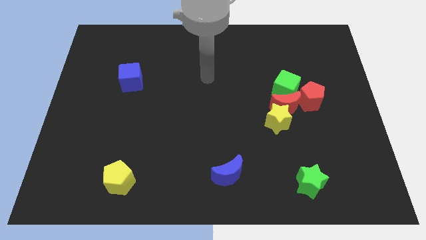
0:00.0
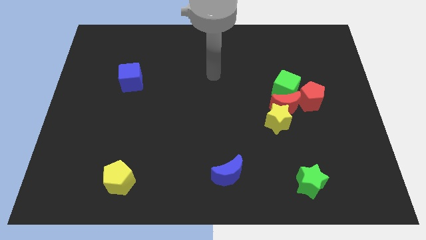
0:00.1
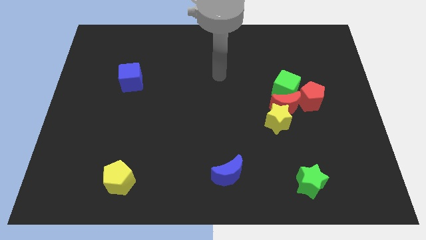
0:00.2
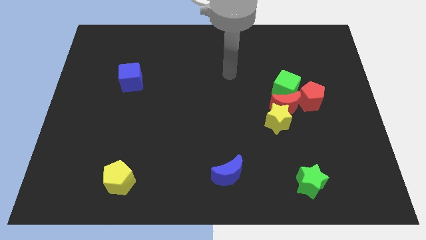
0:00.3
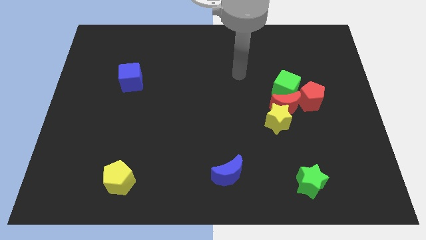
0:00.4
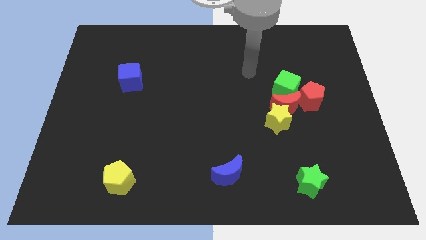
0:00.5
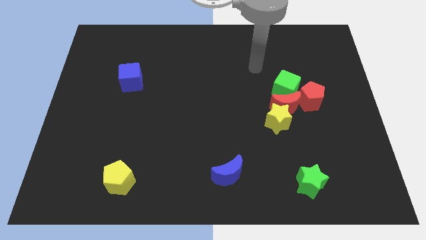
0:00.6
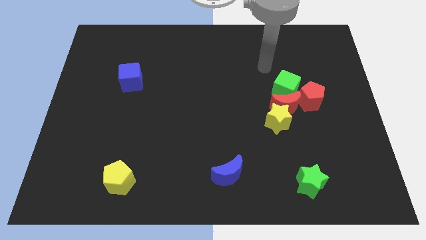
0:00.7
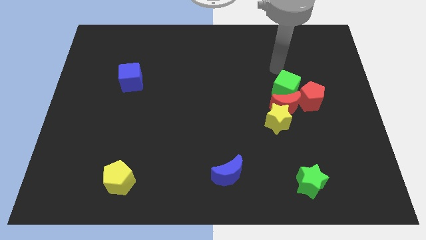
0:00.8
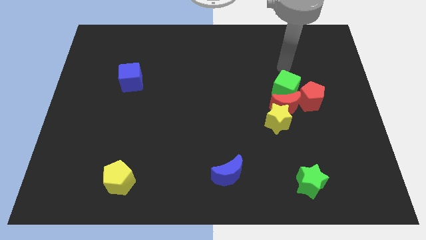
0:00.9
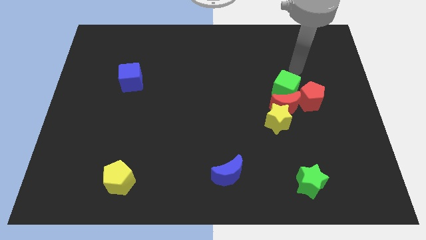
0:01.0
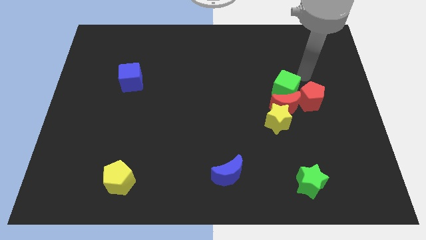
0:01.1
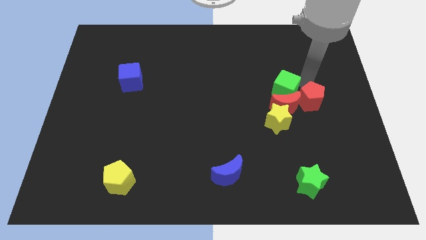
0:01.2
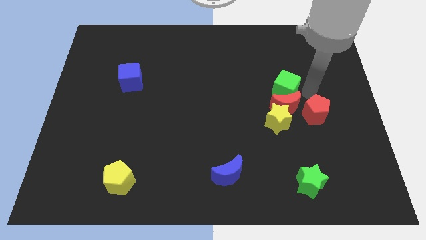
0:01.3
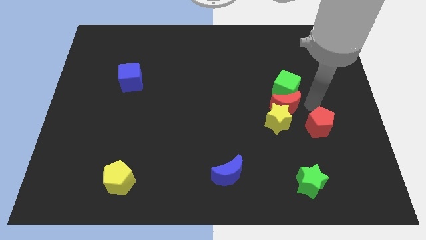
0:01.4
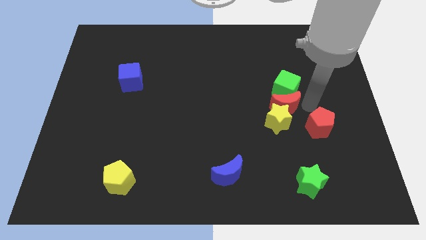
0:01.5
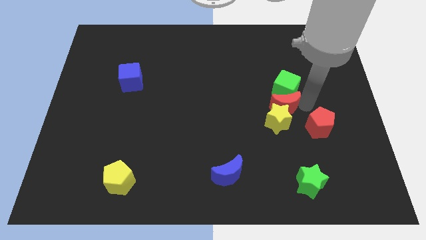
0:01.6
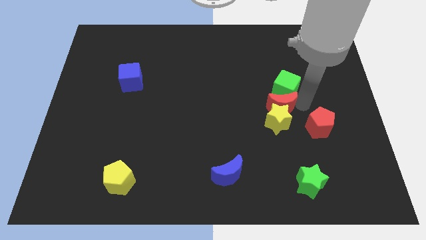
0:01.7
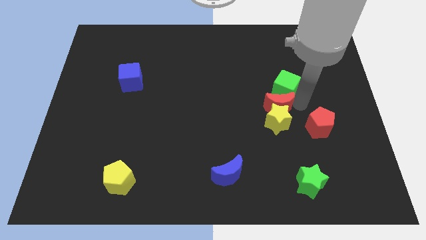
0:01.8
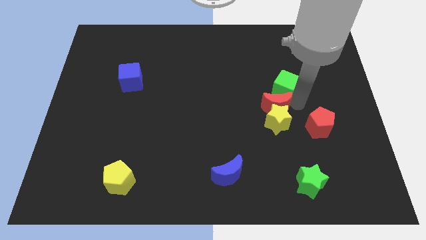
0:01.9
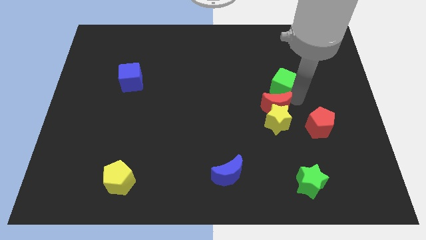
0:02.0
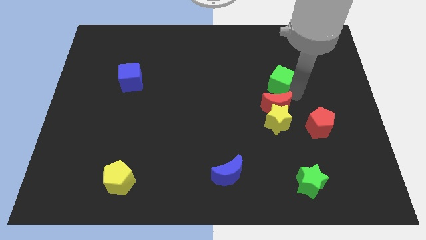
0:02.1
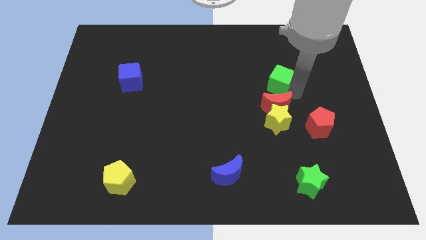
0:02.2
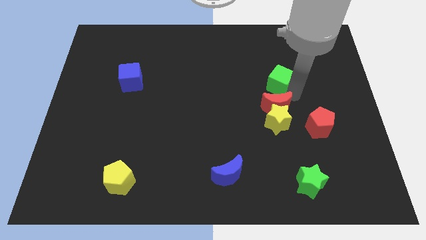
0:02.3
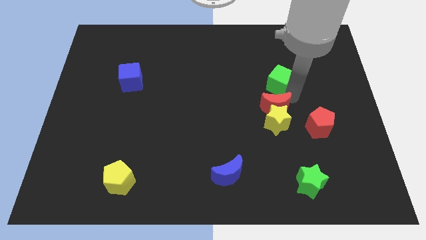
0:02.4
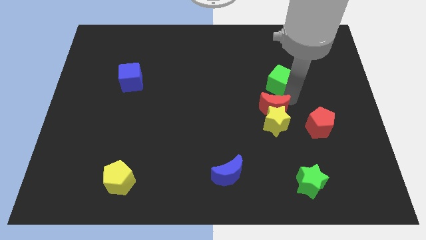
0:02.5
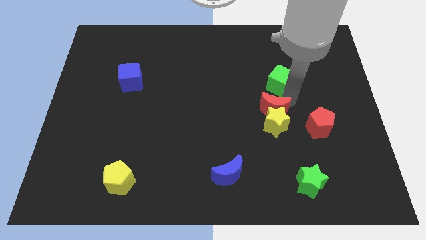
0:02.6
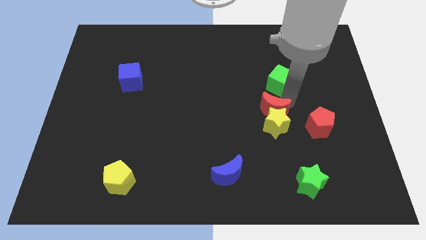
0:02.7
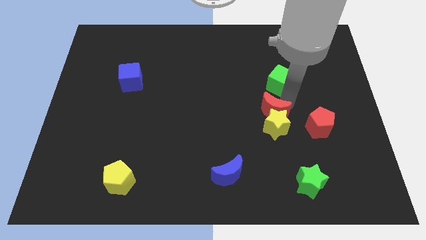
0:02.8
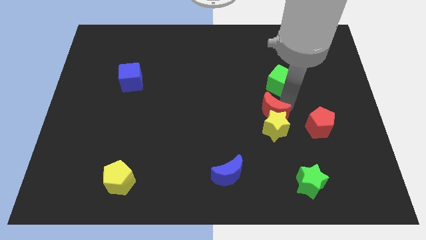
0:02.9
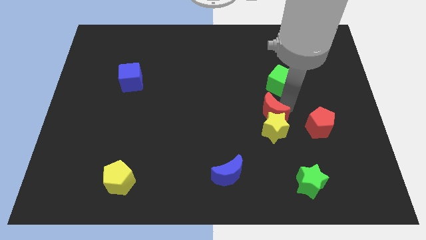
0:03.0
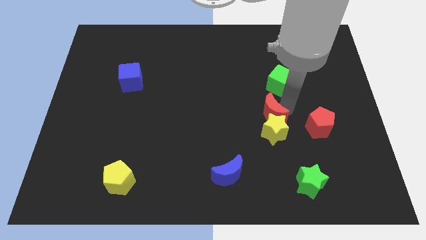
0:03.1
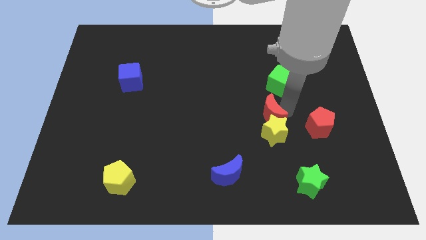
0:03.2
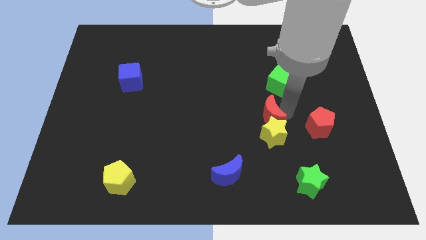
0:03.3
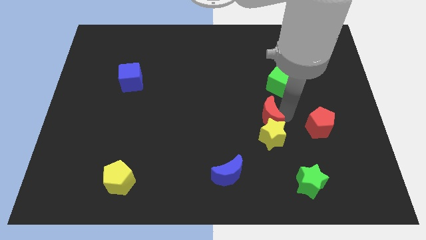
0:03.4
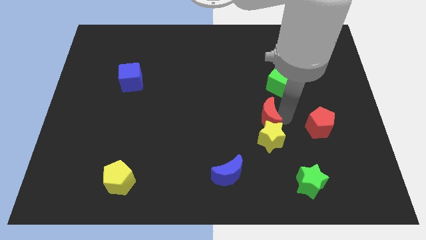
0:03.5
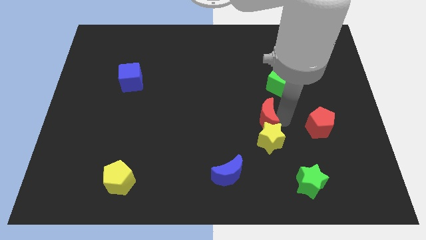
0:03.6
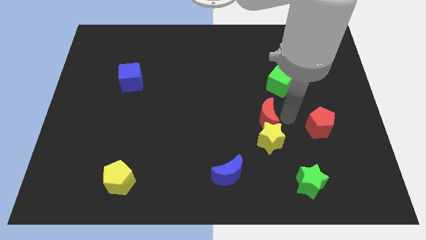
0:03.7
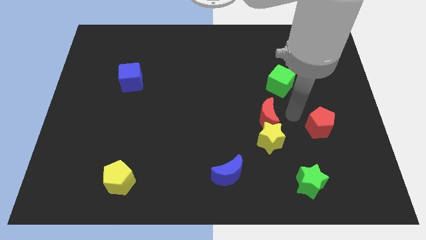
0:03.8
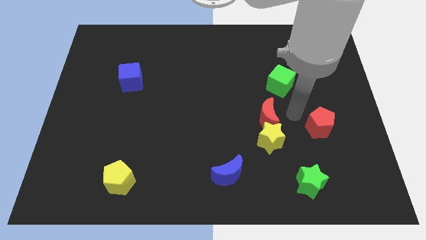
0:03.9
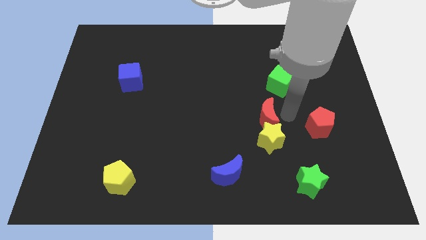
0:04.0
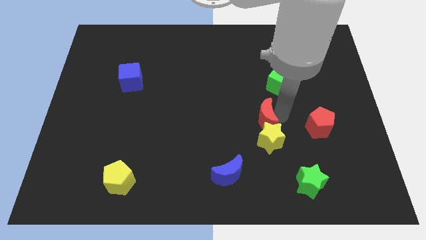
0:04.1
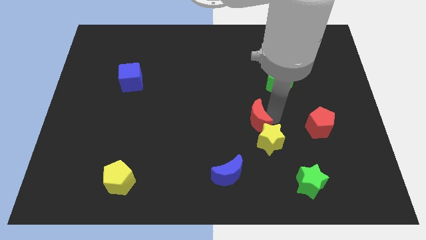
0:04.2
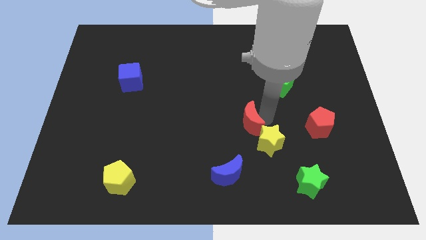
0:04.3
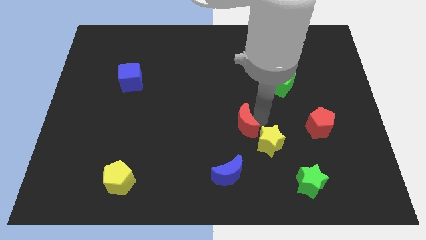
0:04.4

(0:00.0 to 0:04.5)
move the red moon away from the yellow star, green cube, and red pentagon

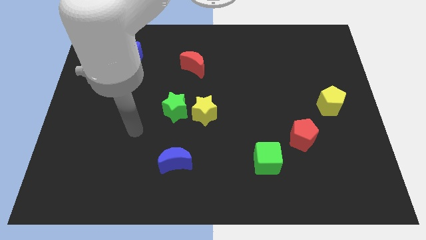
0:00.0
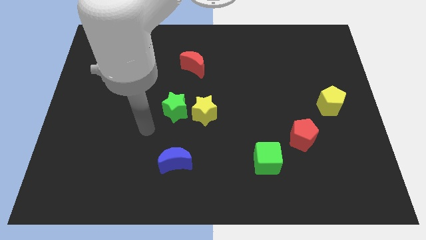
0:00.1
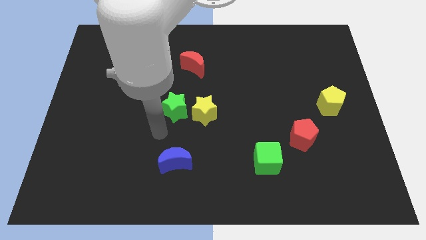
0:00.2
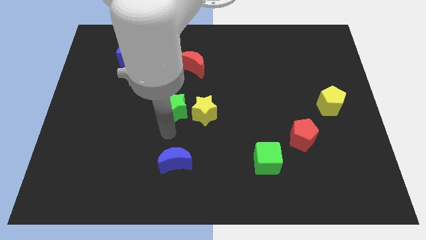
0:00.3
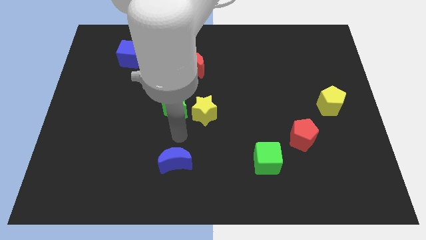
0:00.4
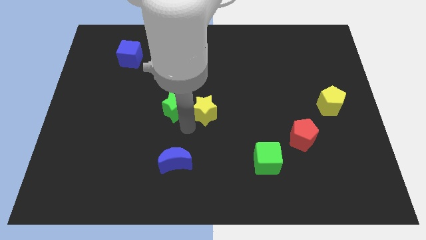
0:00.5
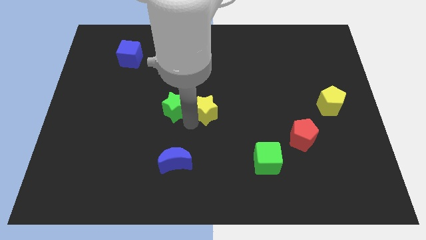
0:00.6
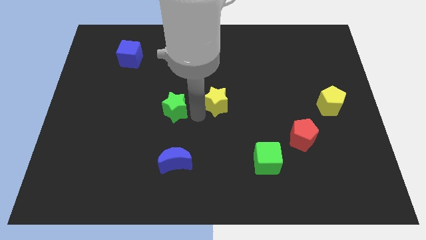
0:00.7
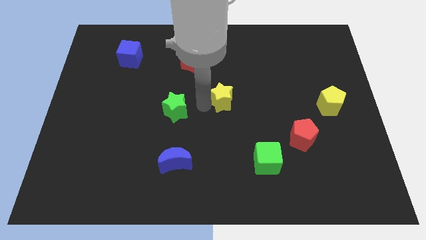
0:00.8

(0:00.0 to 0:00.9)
pull the green star apart from the yellow star

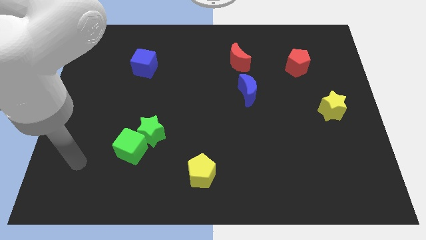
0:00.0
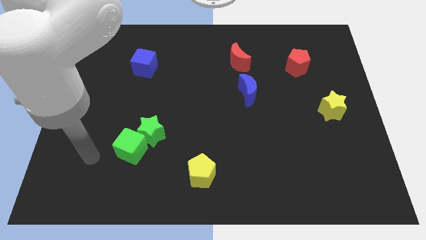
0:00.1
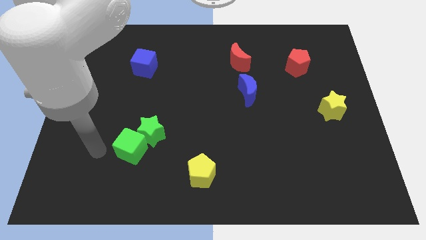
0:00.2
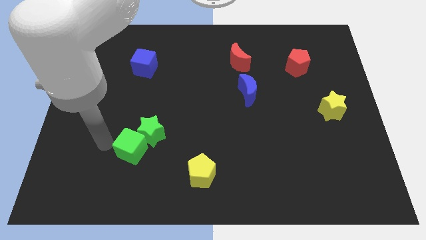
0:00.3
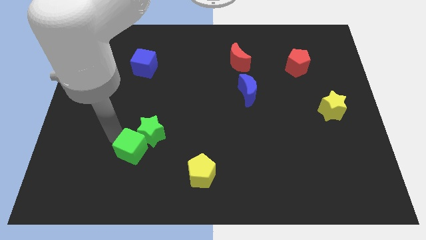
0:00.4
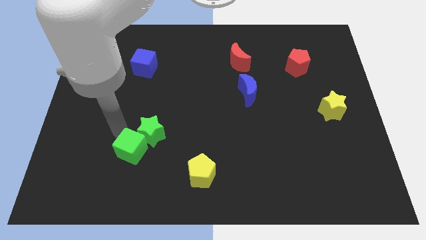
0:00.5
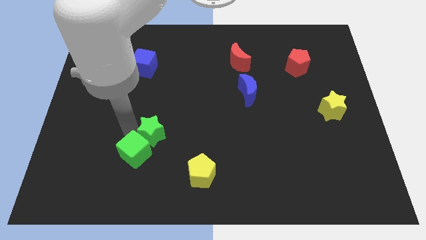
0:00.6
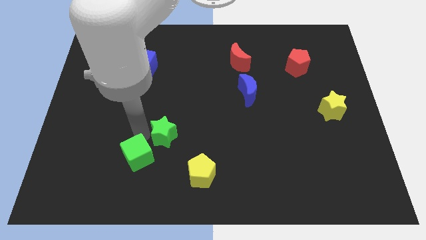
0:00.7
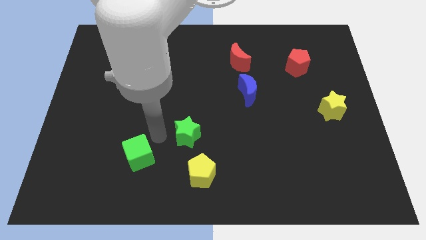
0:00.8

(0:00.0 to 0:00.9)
pull the green cube apart from the green star

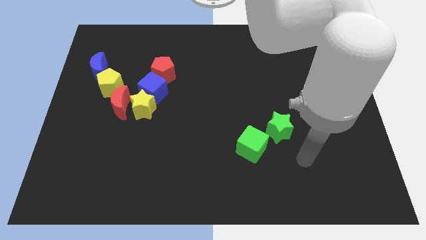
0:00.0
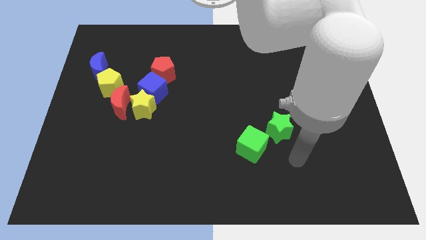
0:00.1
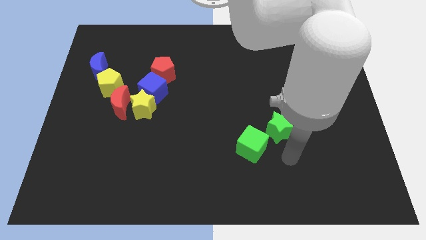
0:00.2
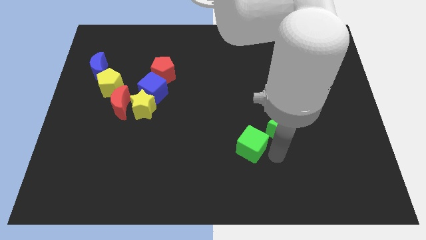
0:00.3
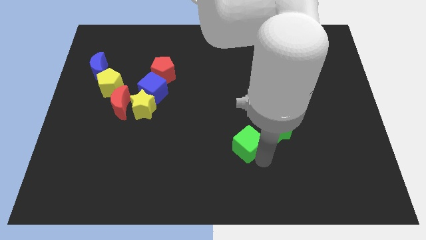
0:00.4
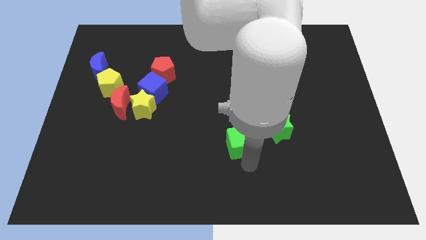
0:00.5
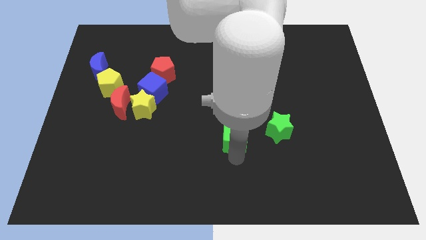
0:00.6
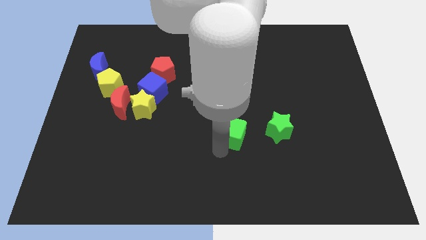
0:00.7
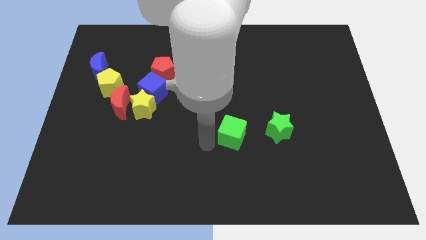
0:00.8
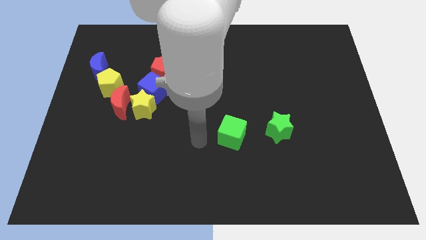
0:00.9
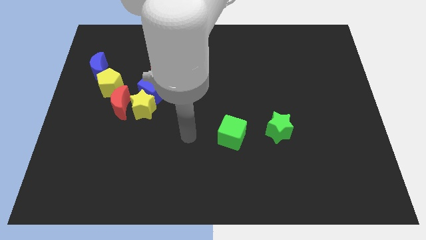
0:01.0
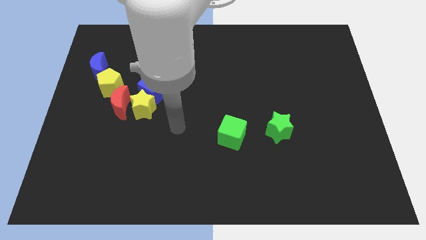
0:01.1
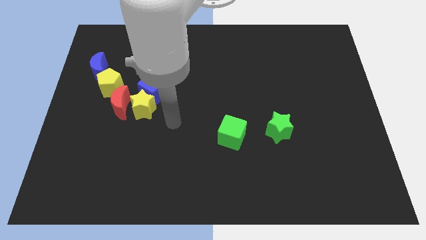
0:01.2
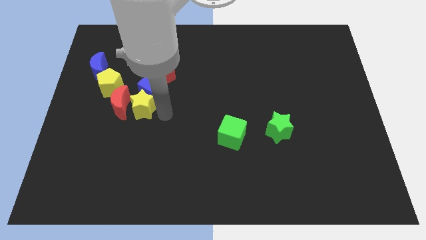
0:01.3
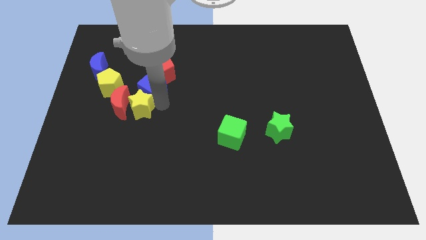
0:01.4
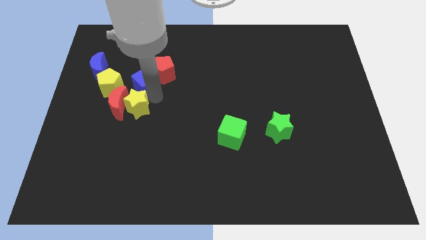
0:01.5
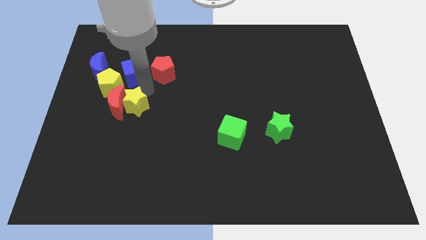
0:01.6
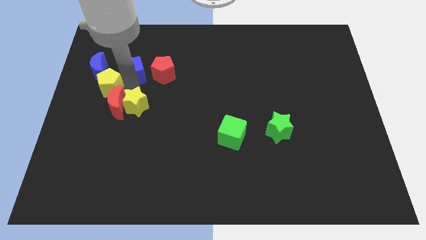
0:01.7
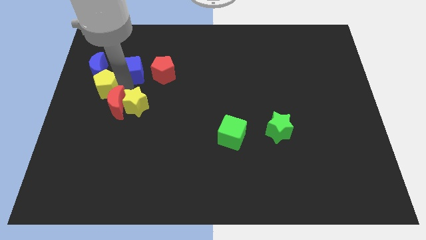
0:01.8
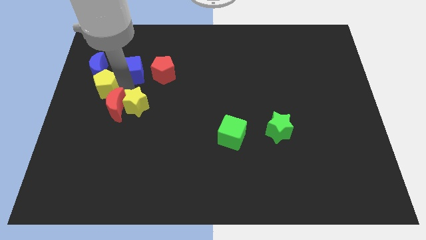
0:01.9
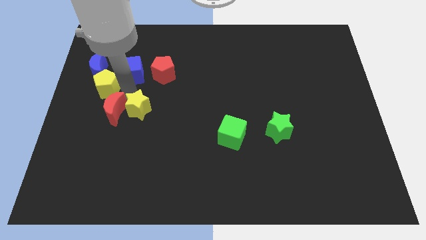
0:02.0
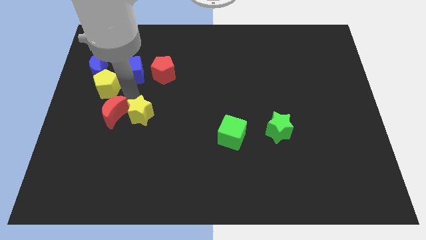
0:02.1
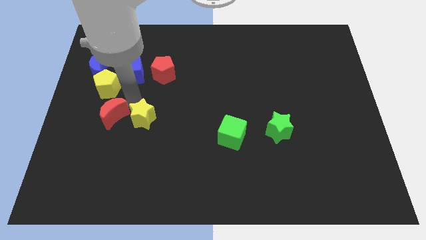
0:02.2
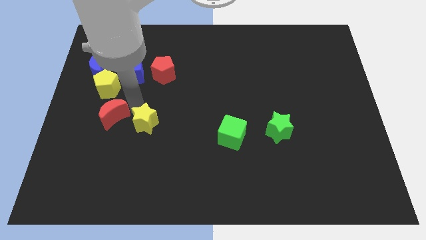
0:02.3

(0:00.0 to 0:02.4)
move the yellow star away from the red moon and blue cube

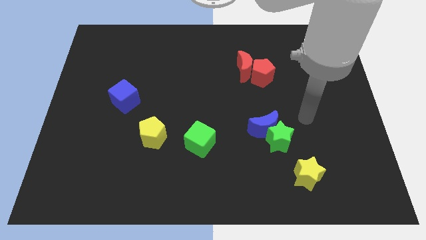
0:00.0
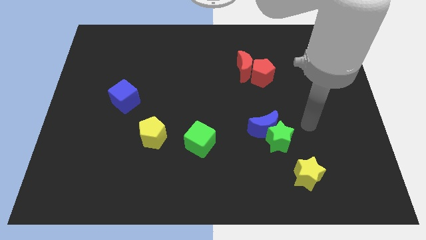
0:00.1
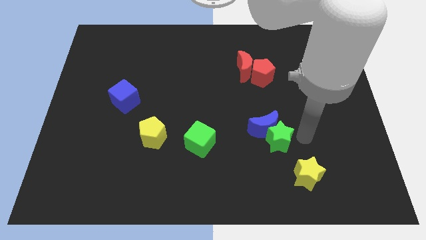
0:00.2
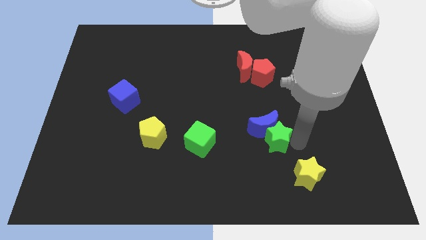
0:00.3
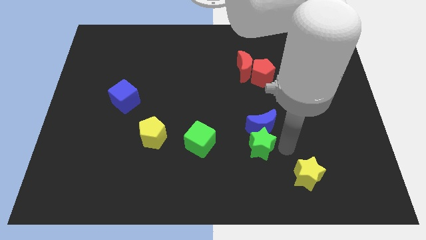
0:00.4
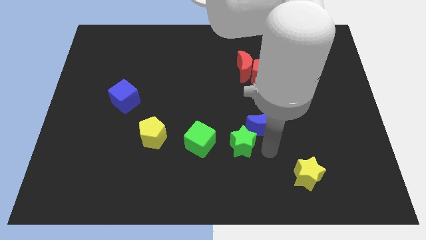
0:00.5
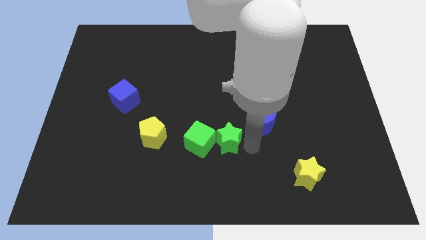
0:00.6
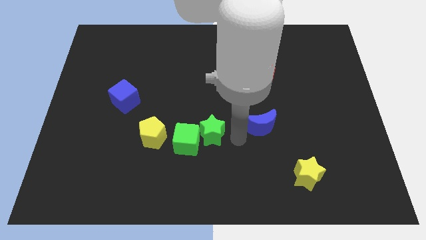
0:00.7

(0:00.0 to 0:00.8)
separate the blue moon from the green star
